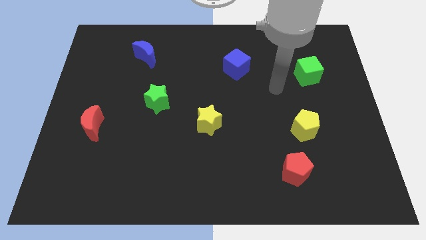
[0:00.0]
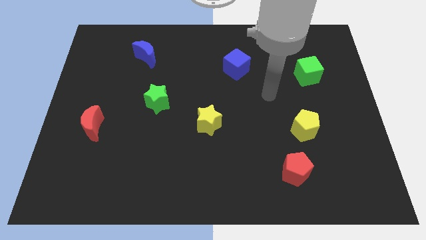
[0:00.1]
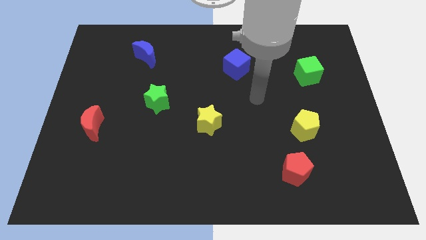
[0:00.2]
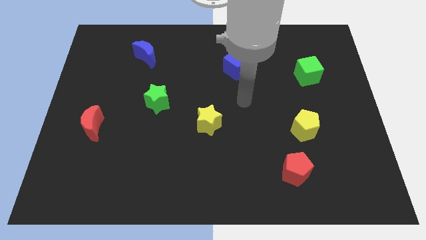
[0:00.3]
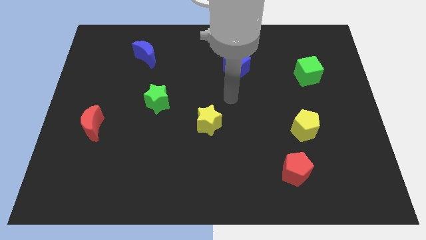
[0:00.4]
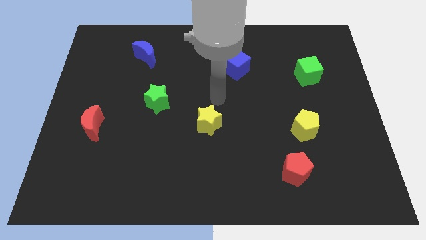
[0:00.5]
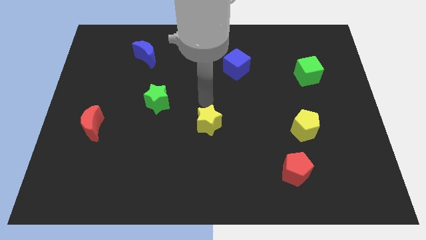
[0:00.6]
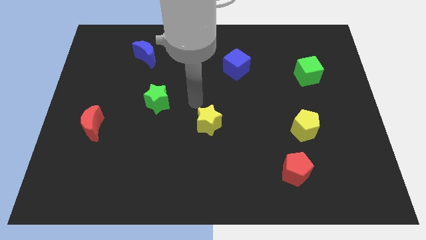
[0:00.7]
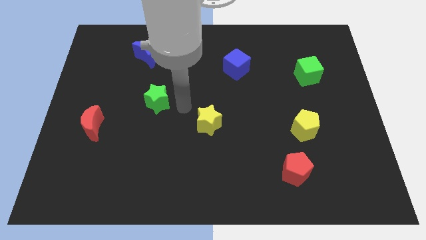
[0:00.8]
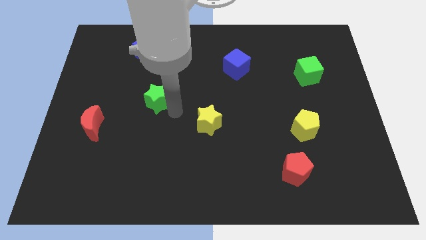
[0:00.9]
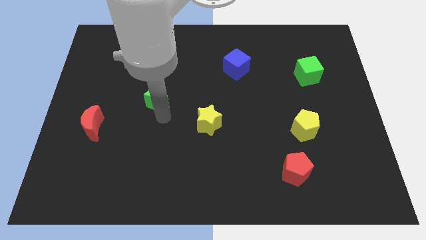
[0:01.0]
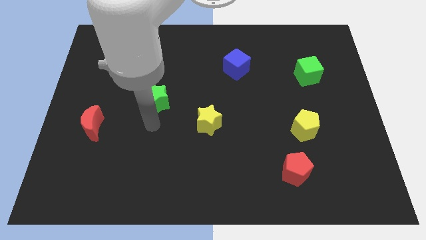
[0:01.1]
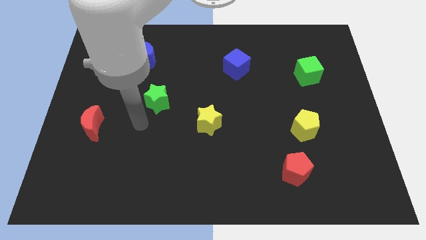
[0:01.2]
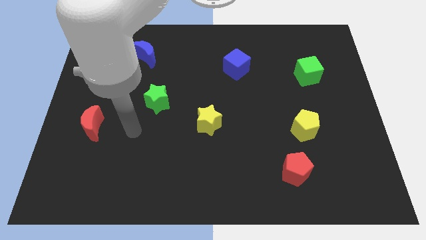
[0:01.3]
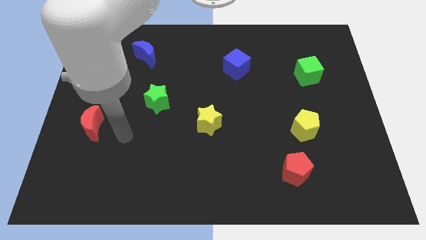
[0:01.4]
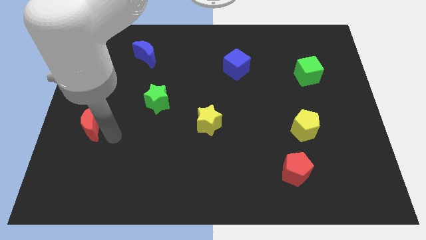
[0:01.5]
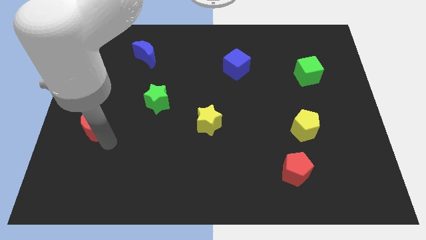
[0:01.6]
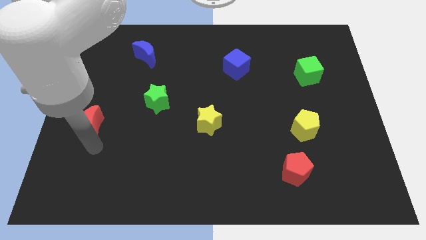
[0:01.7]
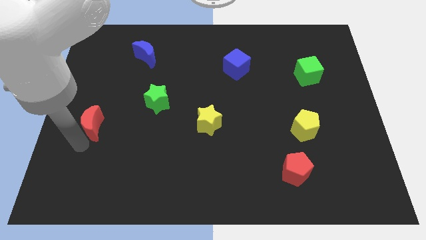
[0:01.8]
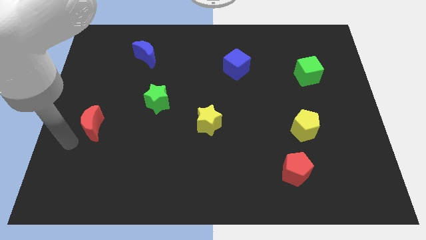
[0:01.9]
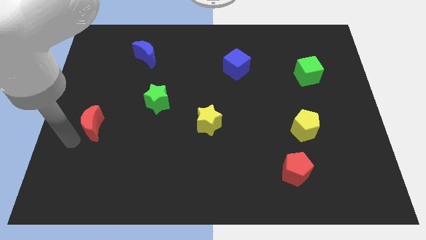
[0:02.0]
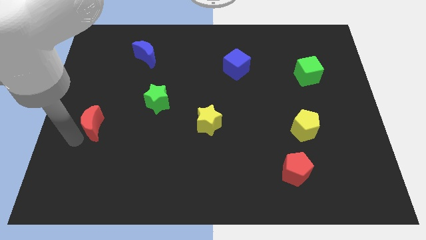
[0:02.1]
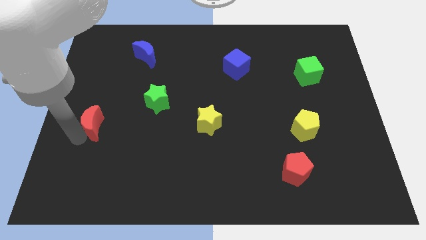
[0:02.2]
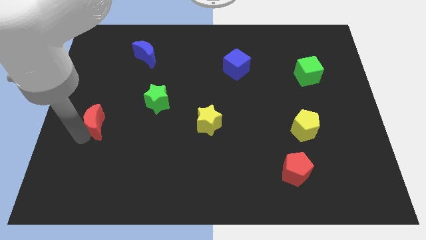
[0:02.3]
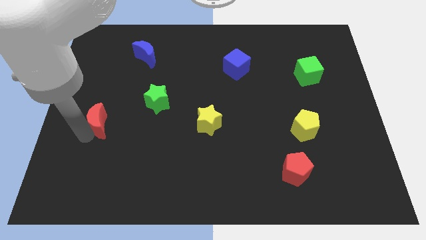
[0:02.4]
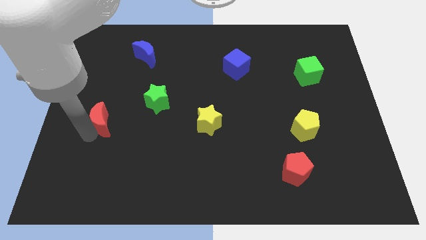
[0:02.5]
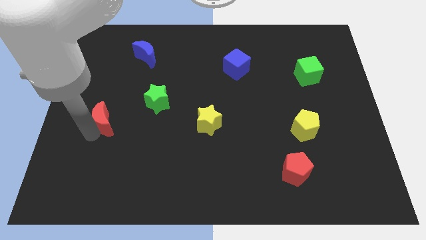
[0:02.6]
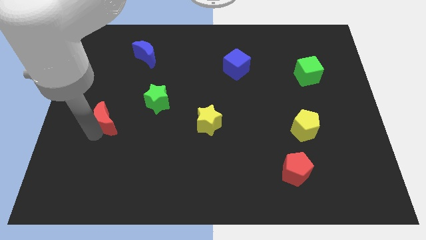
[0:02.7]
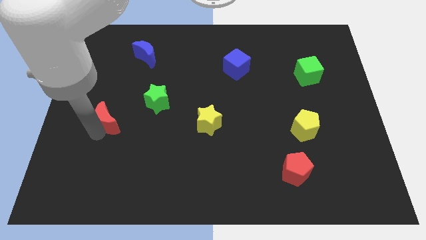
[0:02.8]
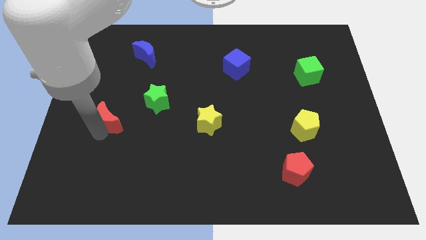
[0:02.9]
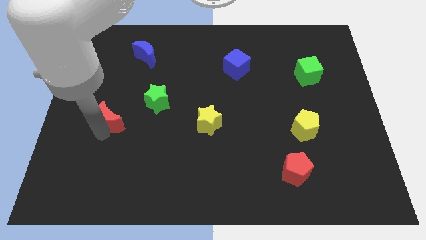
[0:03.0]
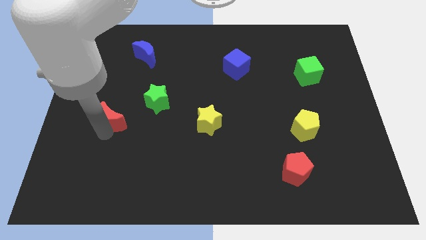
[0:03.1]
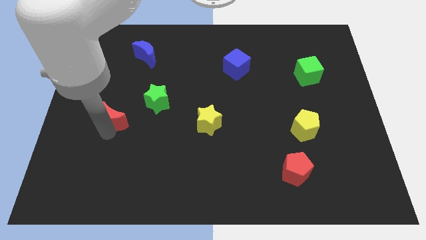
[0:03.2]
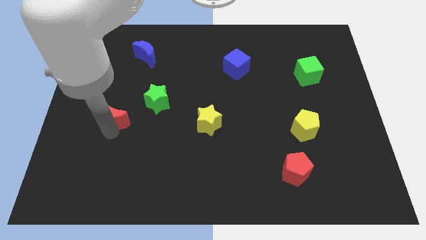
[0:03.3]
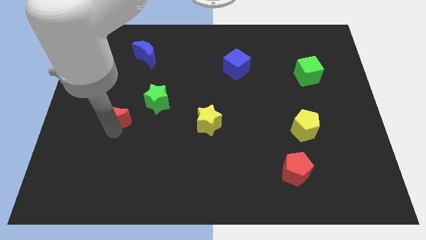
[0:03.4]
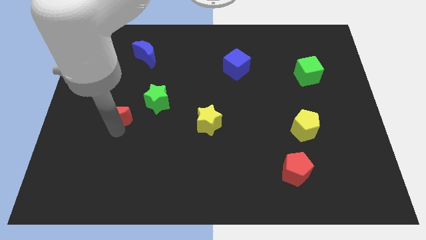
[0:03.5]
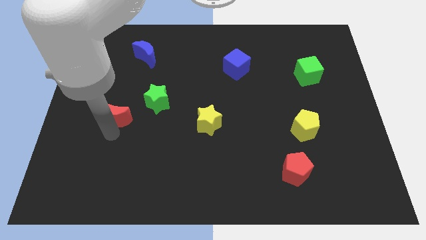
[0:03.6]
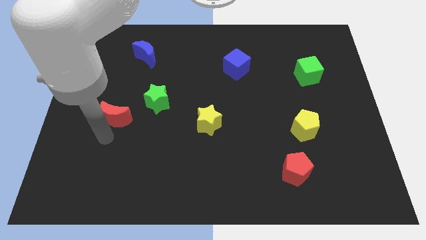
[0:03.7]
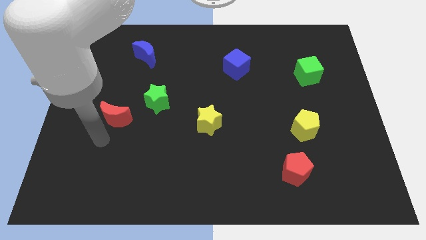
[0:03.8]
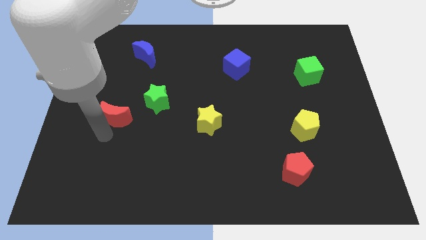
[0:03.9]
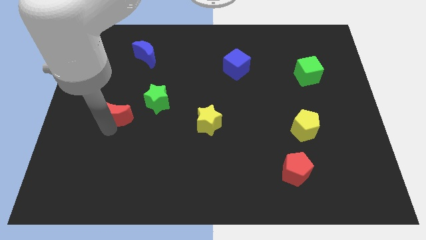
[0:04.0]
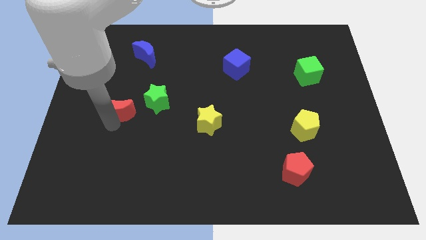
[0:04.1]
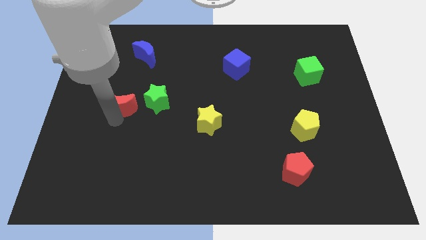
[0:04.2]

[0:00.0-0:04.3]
slightly move the red moon upwards and then right

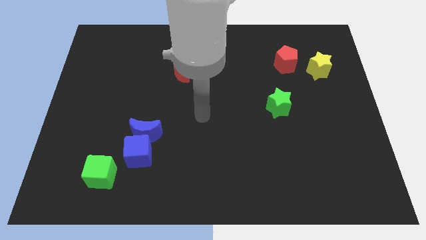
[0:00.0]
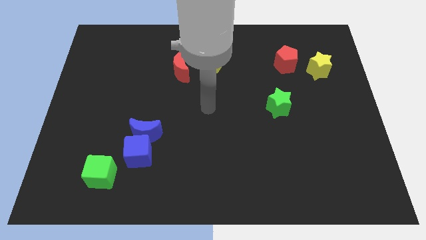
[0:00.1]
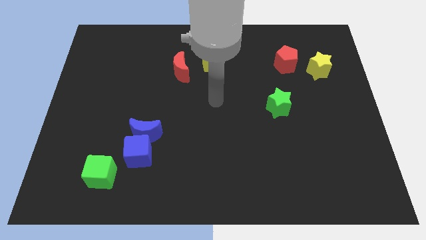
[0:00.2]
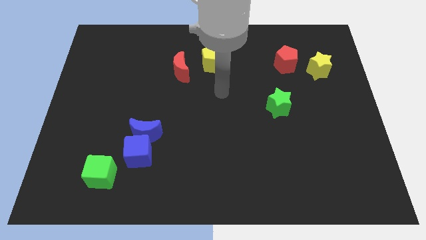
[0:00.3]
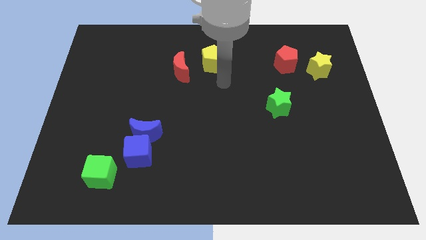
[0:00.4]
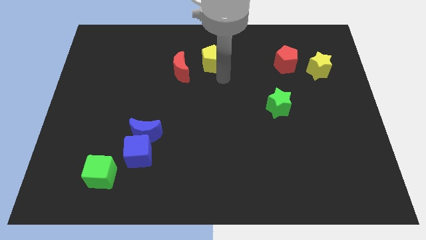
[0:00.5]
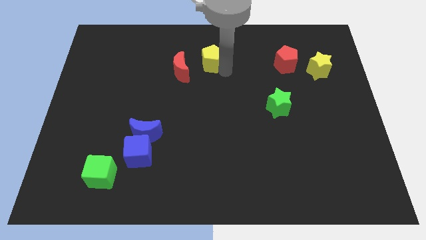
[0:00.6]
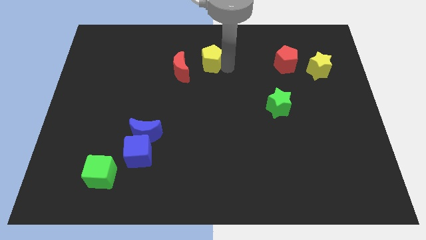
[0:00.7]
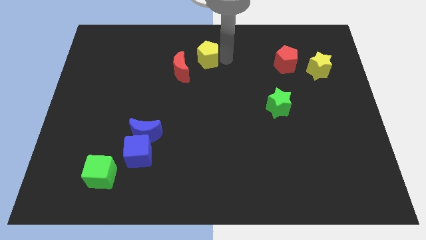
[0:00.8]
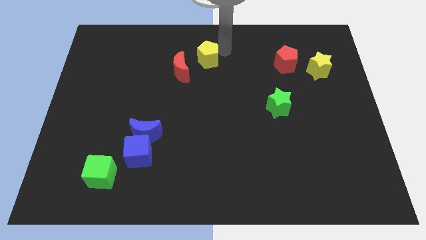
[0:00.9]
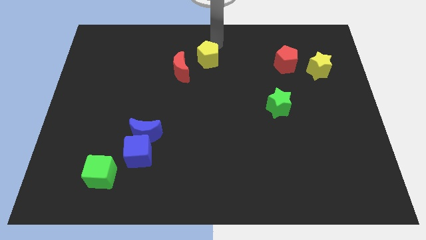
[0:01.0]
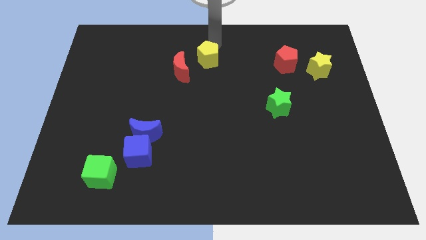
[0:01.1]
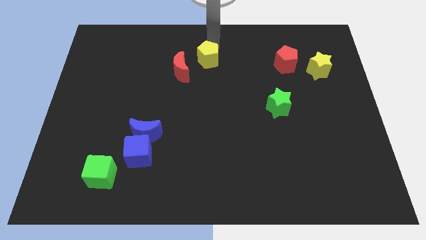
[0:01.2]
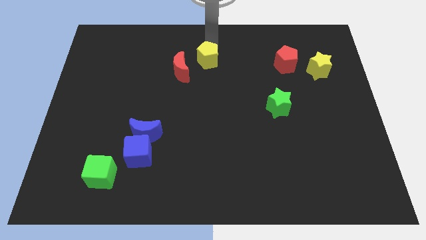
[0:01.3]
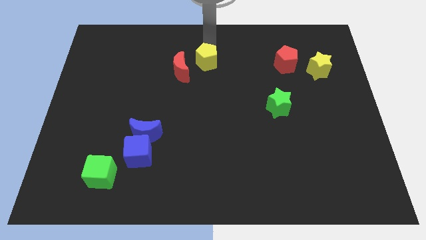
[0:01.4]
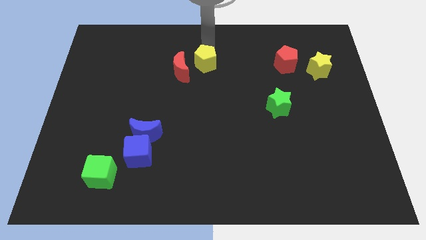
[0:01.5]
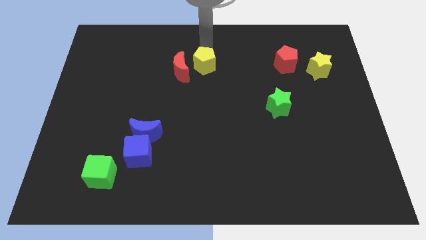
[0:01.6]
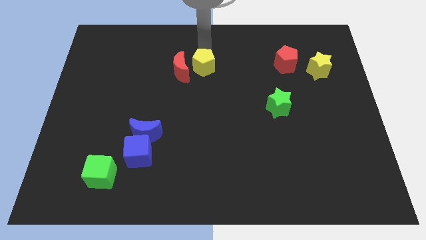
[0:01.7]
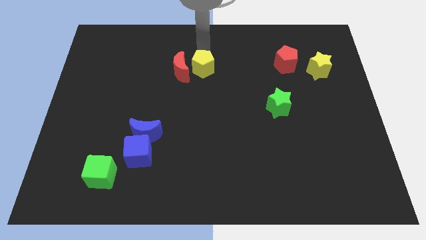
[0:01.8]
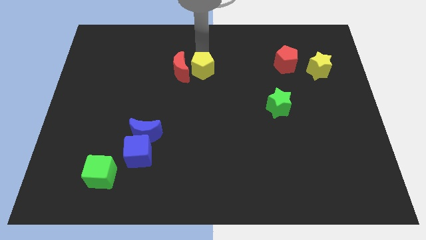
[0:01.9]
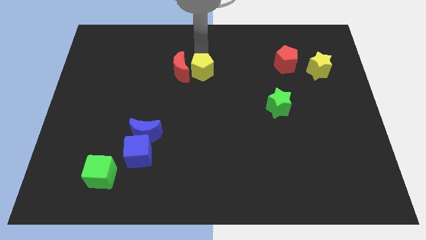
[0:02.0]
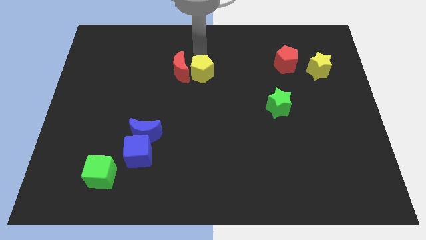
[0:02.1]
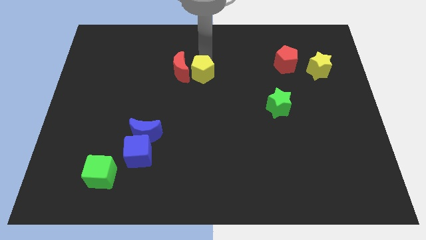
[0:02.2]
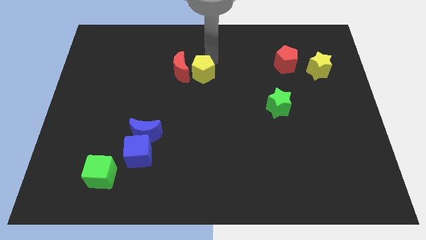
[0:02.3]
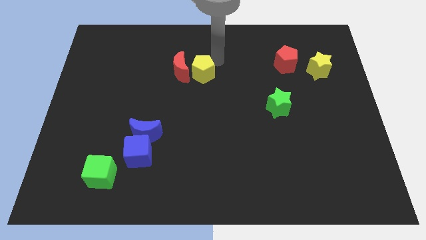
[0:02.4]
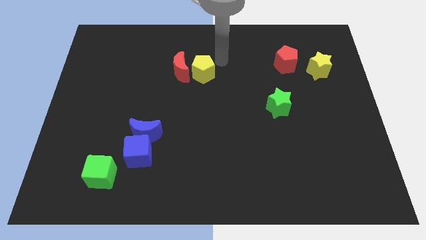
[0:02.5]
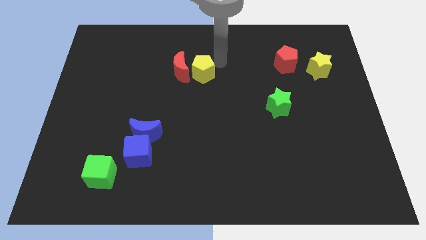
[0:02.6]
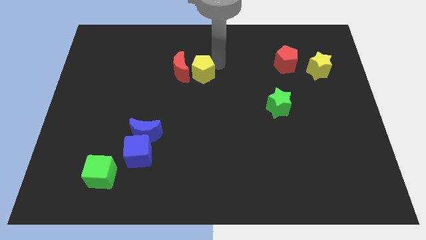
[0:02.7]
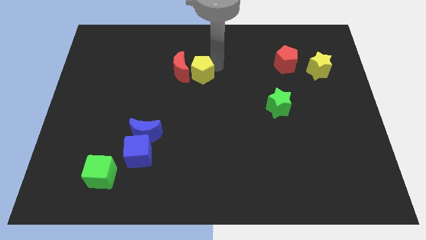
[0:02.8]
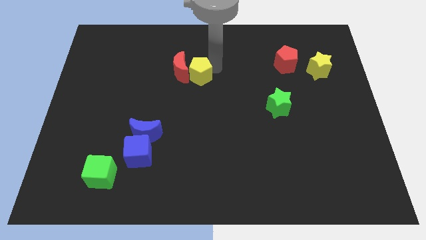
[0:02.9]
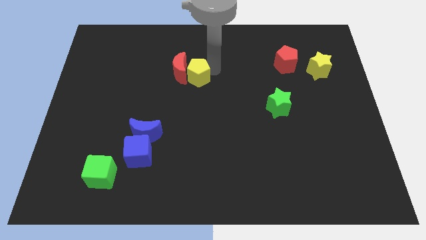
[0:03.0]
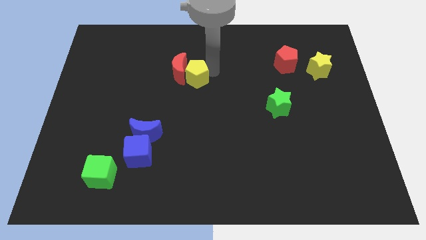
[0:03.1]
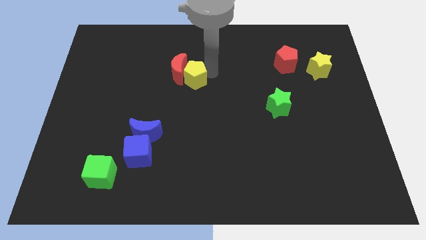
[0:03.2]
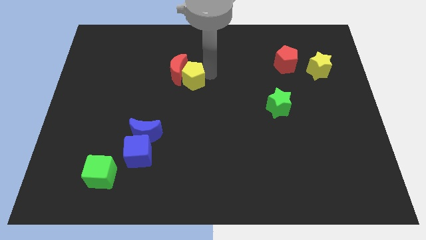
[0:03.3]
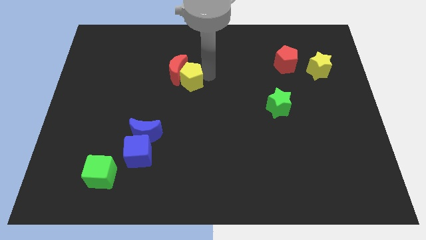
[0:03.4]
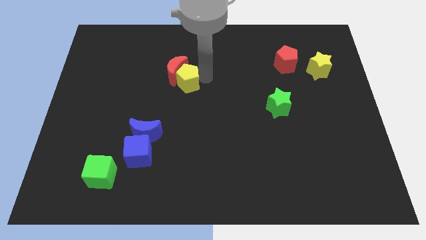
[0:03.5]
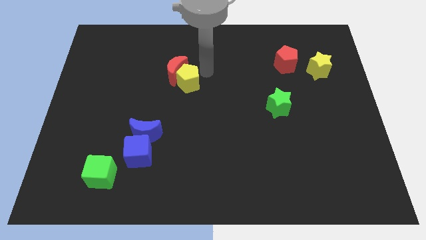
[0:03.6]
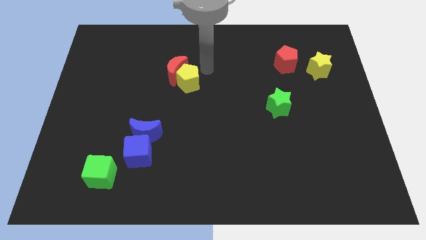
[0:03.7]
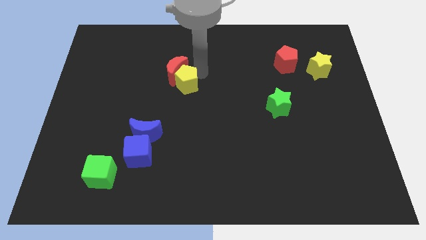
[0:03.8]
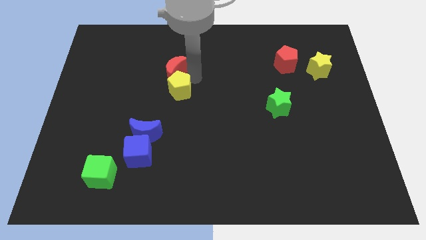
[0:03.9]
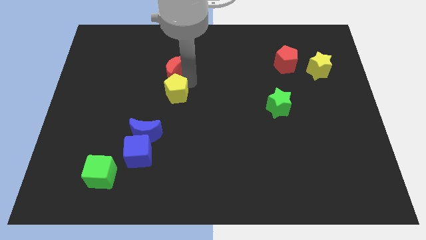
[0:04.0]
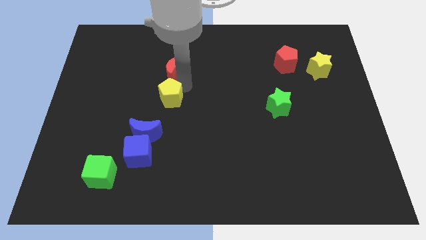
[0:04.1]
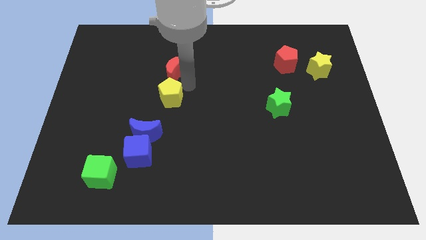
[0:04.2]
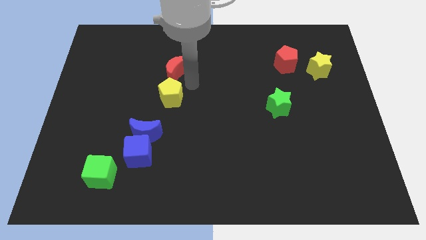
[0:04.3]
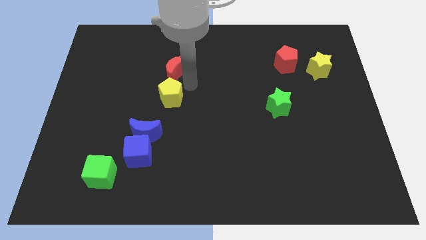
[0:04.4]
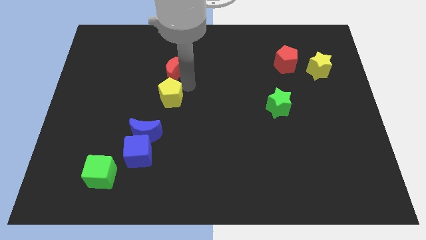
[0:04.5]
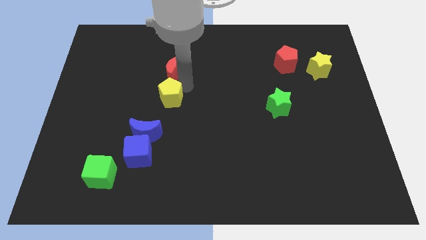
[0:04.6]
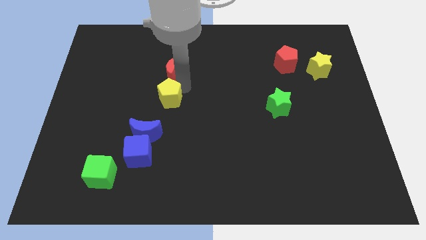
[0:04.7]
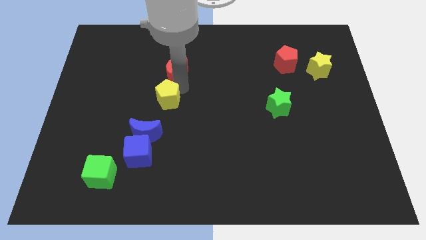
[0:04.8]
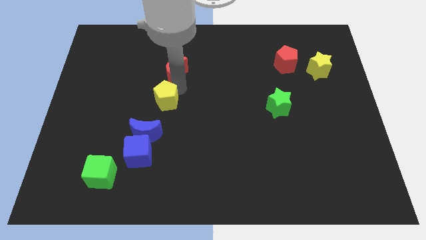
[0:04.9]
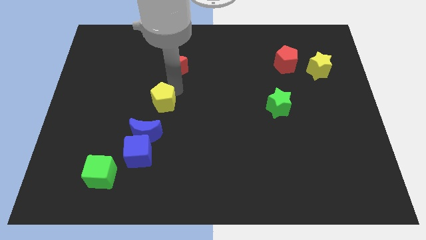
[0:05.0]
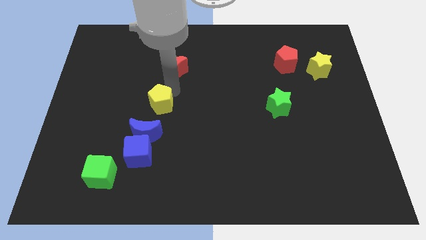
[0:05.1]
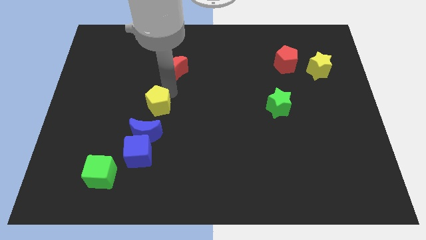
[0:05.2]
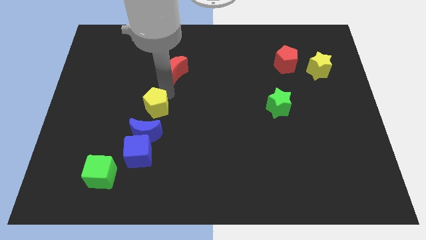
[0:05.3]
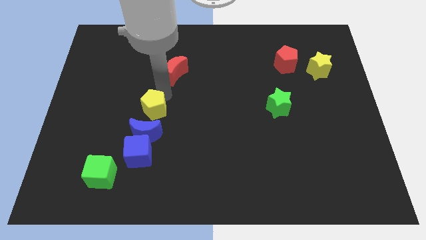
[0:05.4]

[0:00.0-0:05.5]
slide the yellow pentagon down and then left
